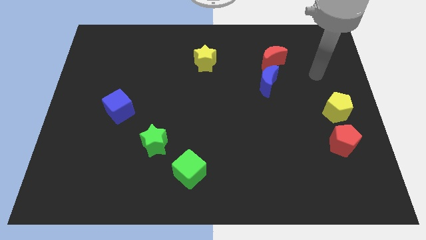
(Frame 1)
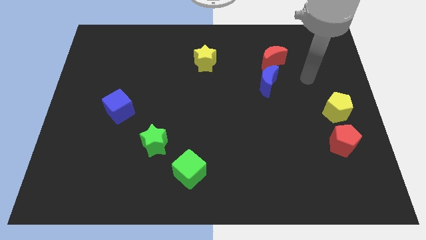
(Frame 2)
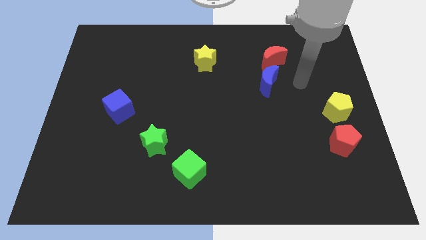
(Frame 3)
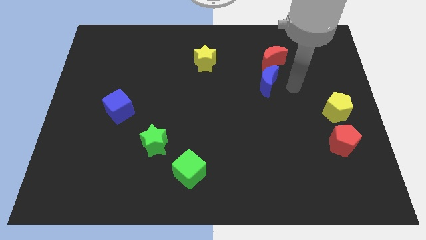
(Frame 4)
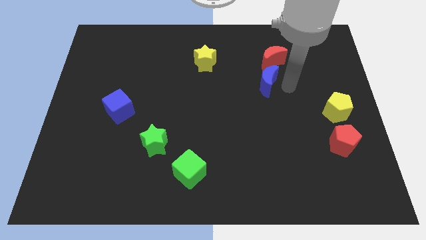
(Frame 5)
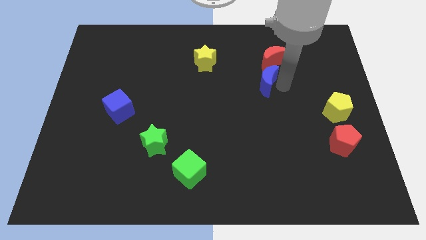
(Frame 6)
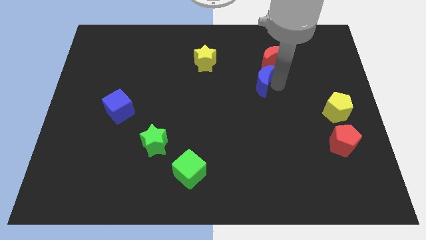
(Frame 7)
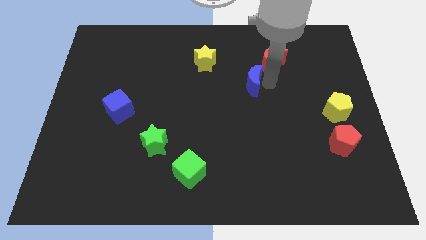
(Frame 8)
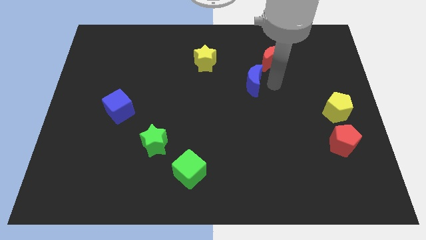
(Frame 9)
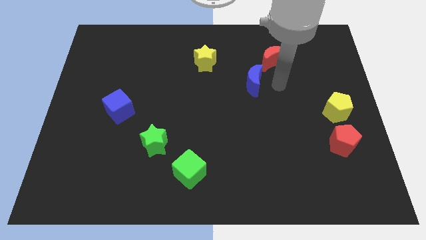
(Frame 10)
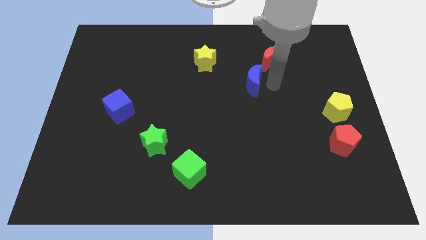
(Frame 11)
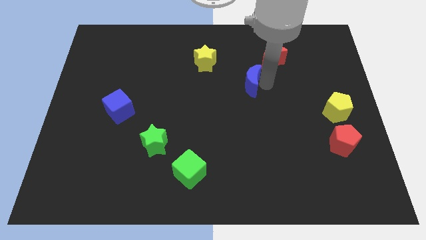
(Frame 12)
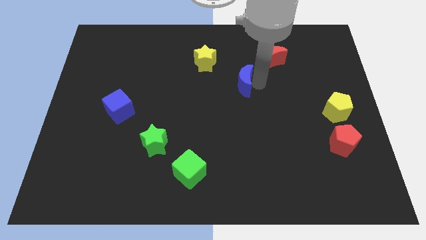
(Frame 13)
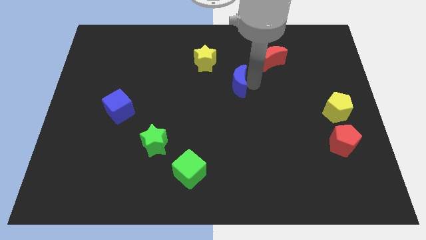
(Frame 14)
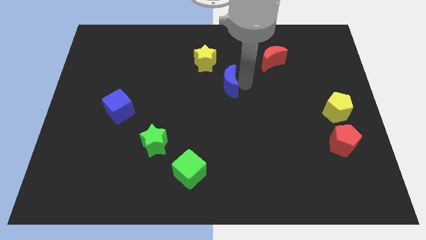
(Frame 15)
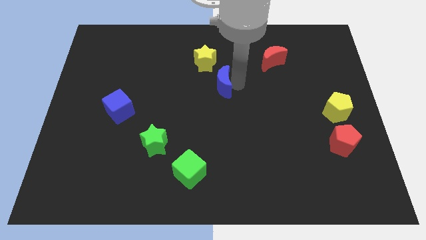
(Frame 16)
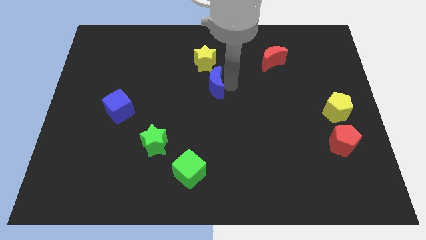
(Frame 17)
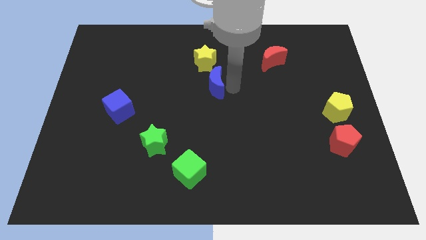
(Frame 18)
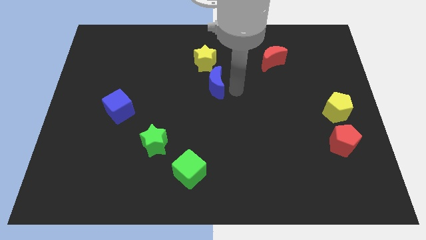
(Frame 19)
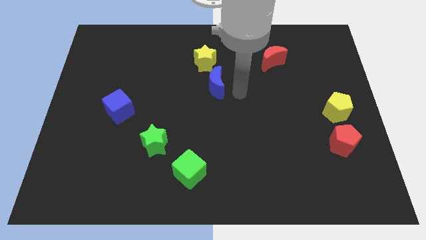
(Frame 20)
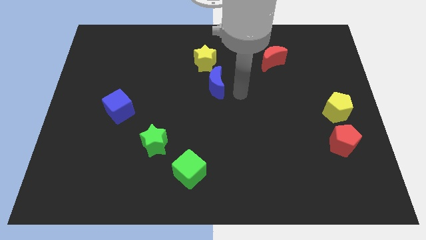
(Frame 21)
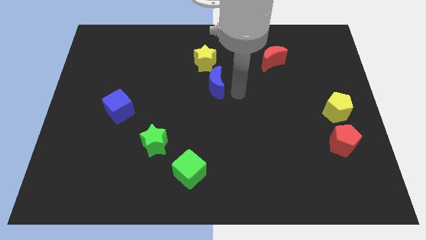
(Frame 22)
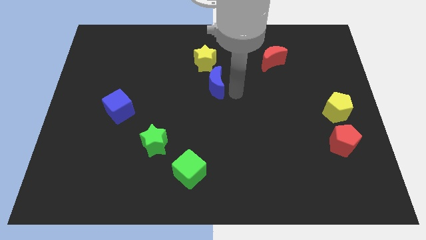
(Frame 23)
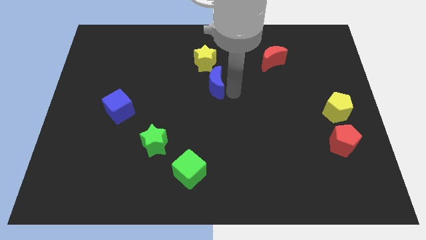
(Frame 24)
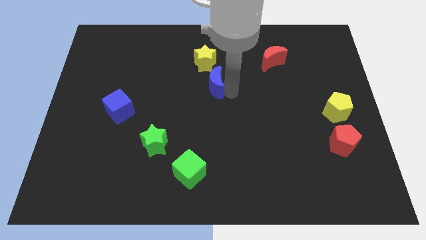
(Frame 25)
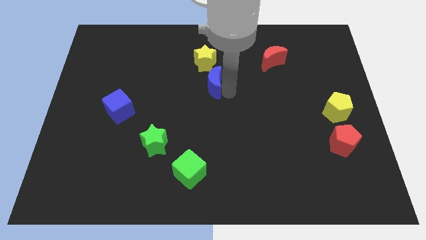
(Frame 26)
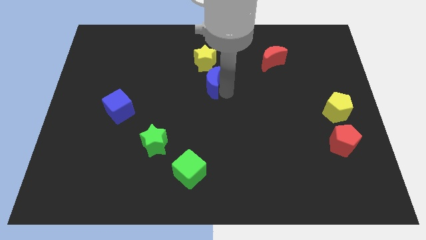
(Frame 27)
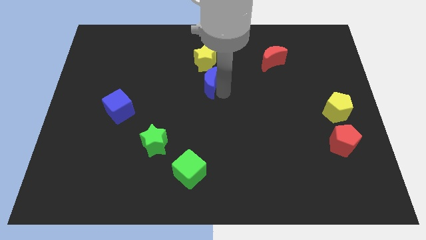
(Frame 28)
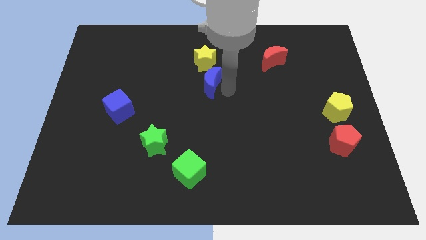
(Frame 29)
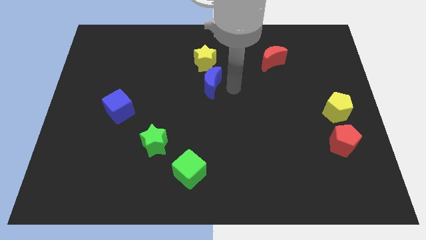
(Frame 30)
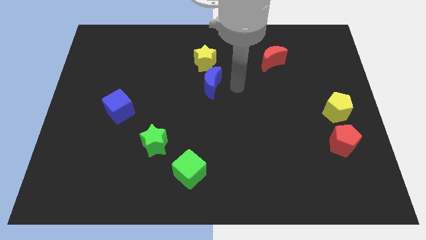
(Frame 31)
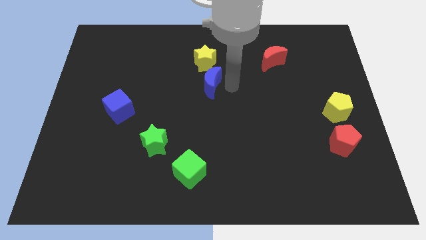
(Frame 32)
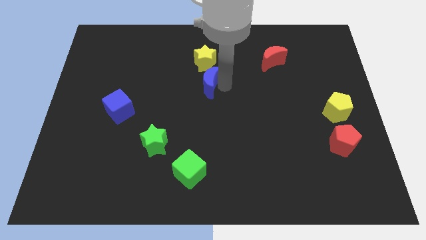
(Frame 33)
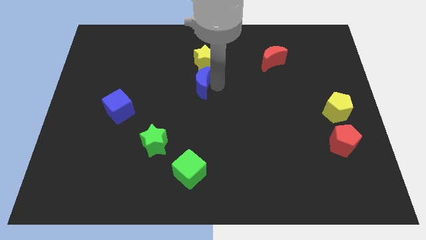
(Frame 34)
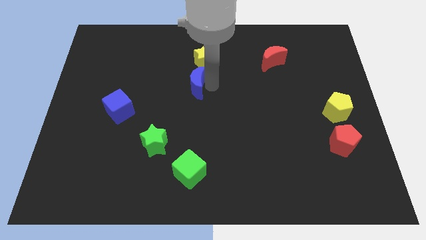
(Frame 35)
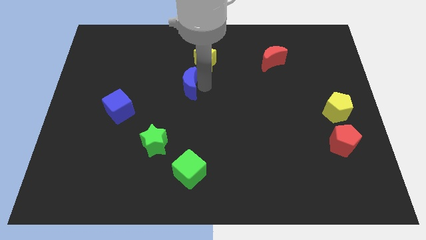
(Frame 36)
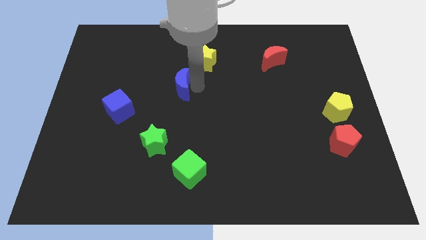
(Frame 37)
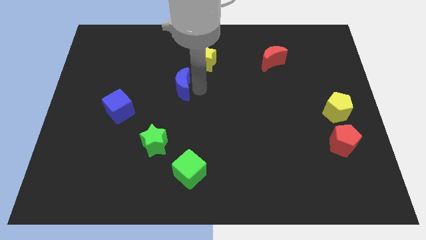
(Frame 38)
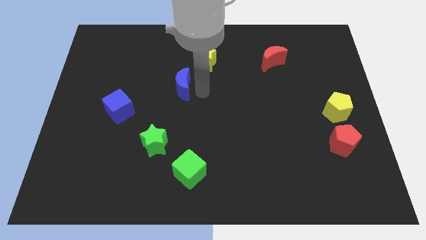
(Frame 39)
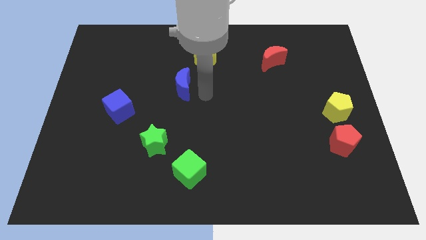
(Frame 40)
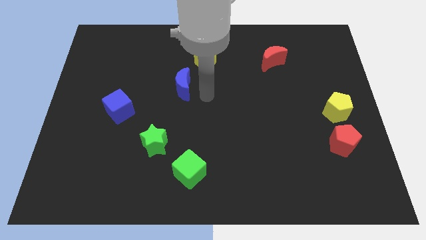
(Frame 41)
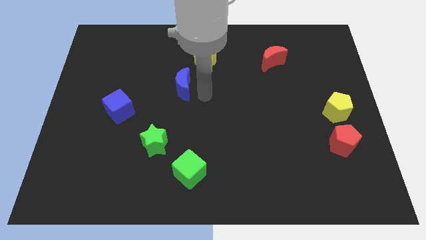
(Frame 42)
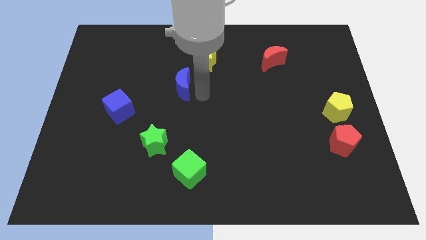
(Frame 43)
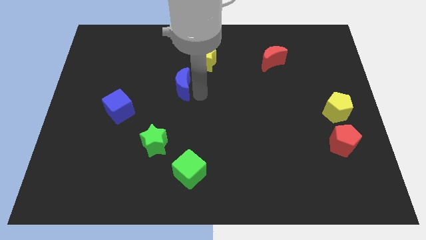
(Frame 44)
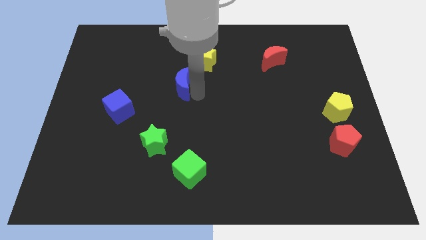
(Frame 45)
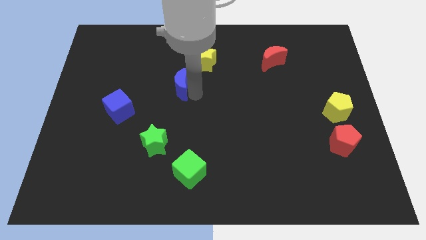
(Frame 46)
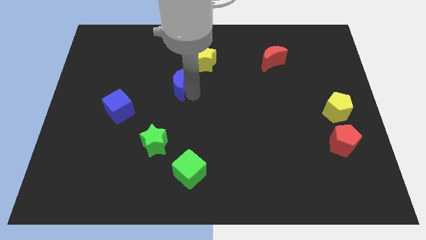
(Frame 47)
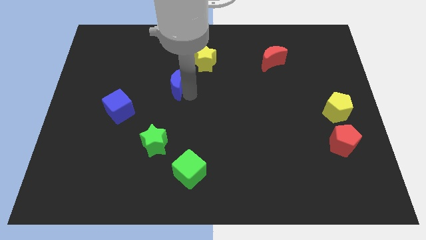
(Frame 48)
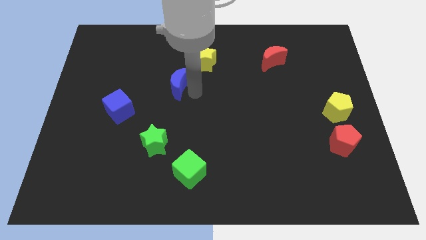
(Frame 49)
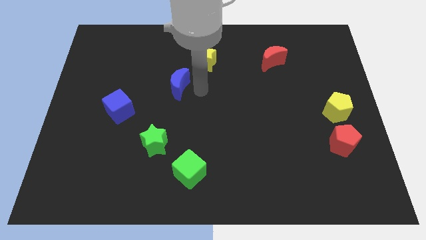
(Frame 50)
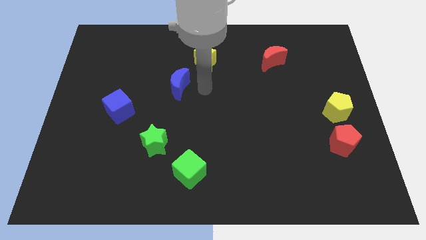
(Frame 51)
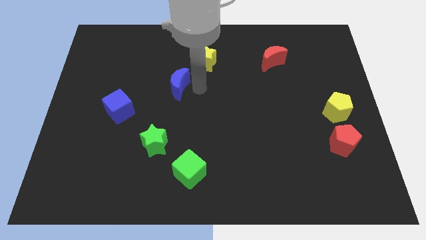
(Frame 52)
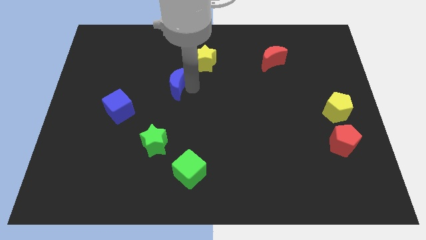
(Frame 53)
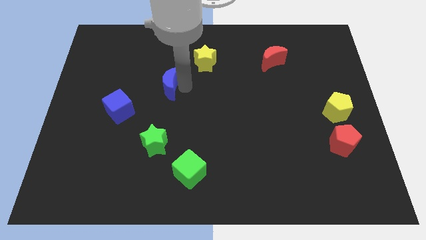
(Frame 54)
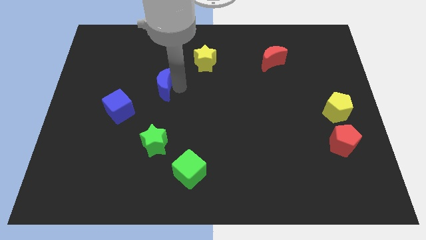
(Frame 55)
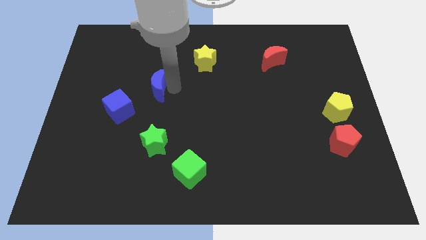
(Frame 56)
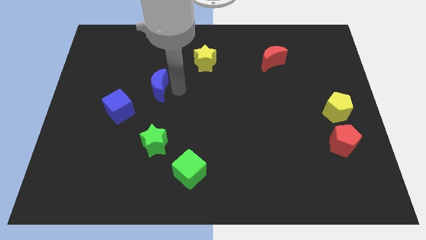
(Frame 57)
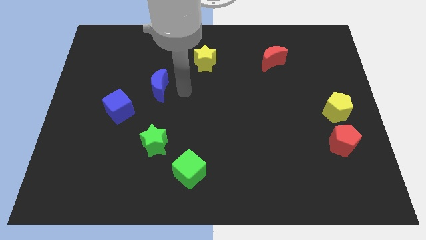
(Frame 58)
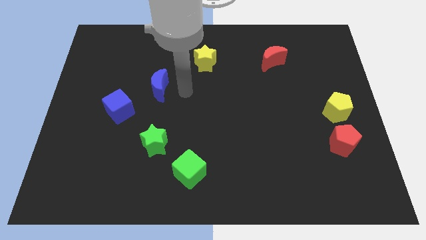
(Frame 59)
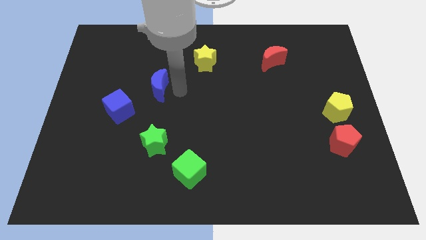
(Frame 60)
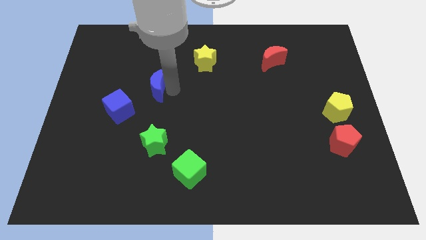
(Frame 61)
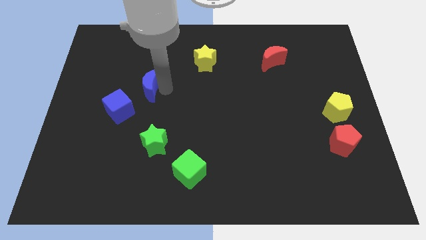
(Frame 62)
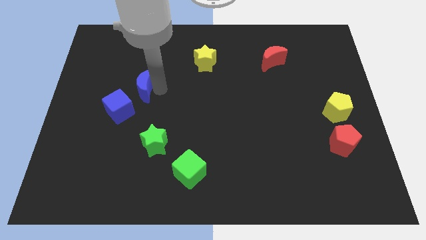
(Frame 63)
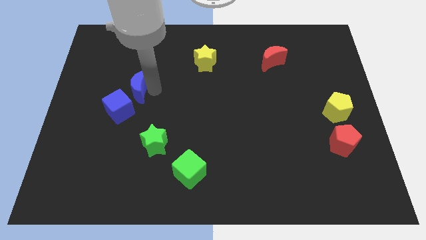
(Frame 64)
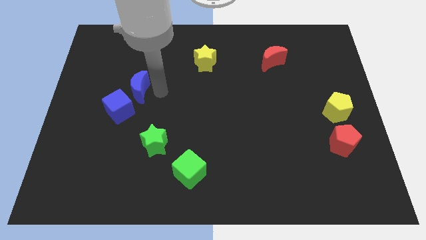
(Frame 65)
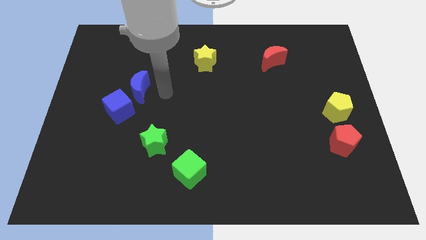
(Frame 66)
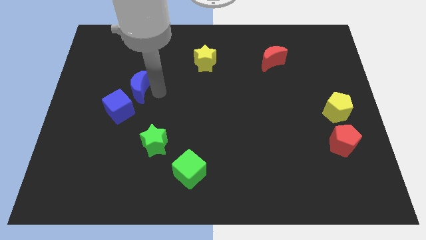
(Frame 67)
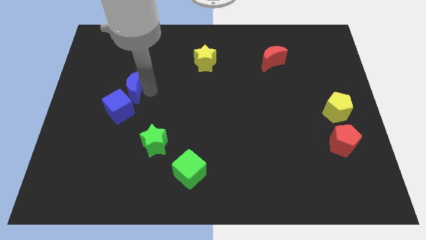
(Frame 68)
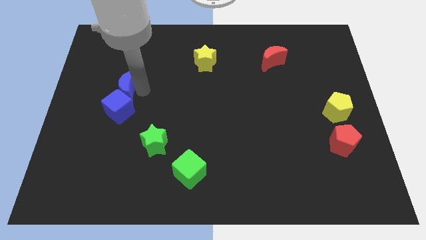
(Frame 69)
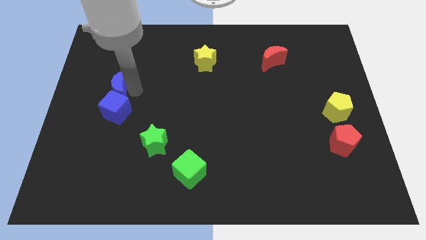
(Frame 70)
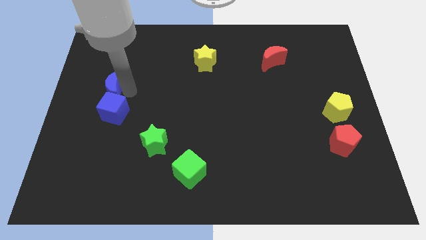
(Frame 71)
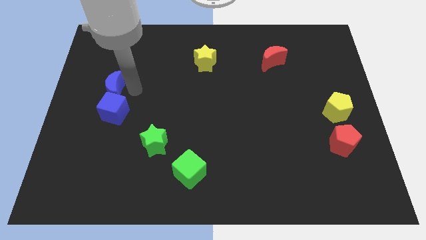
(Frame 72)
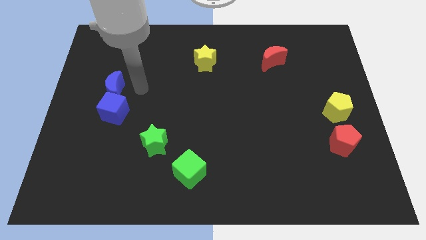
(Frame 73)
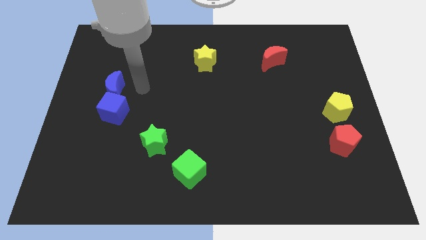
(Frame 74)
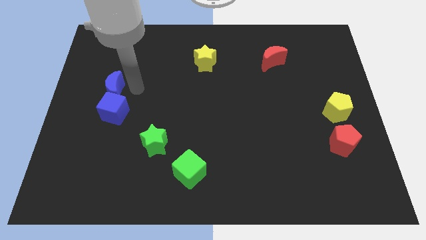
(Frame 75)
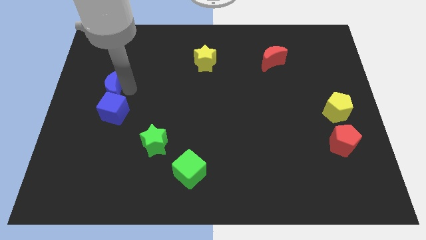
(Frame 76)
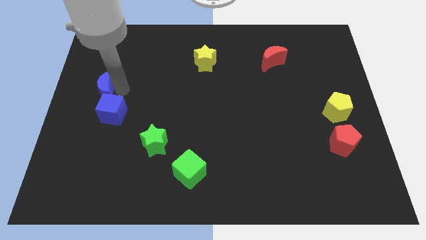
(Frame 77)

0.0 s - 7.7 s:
move the blue moon to the left side of the board
